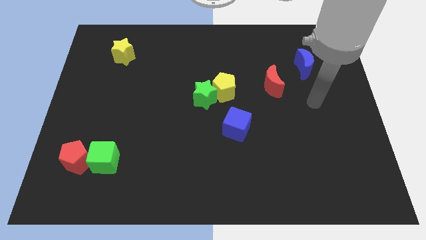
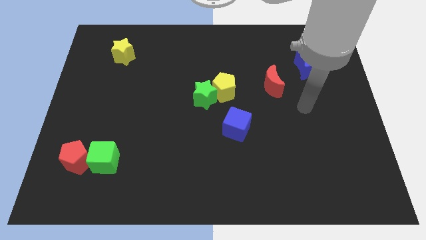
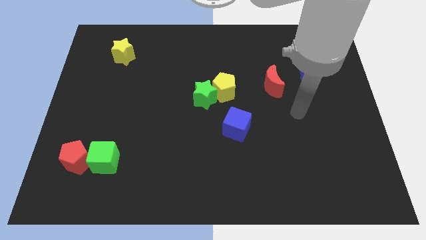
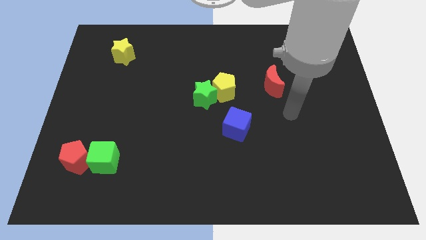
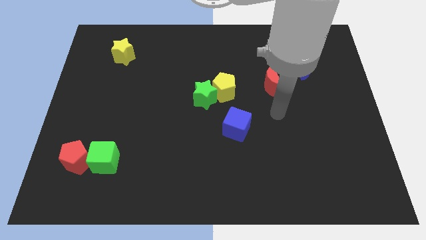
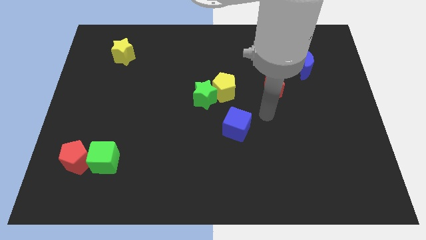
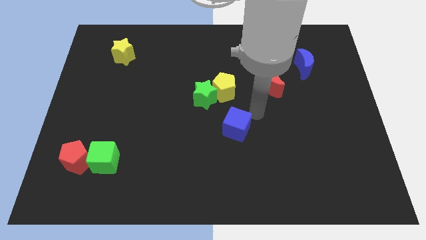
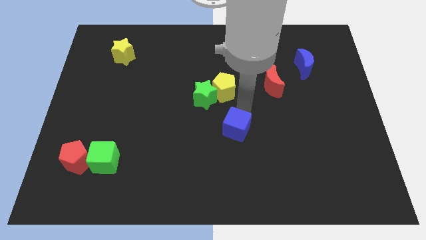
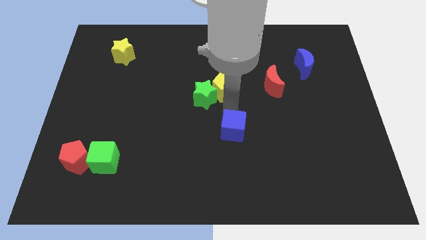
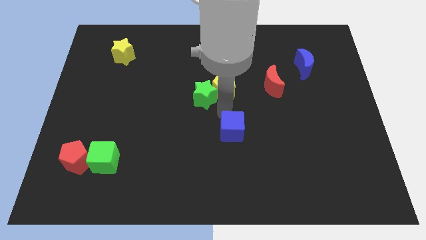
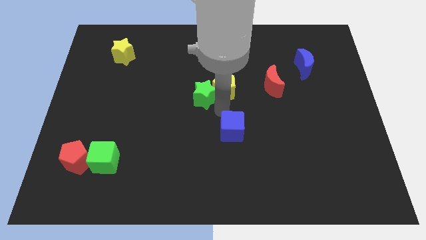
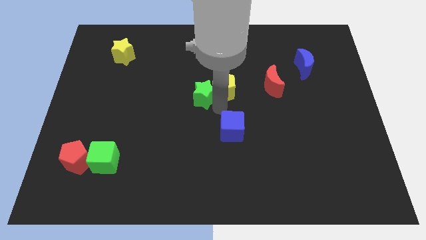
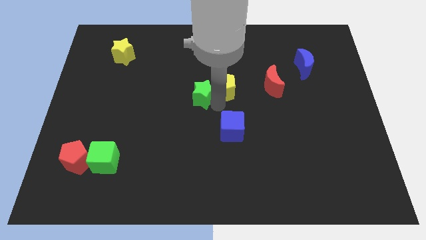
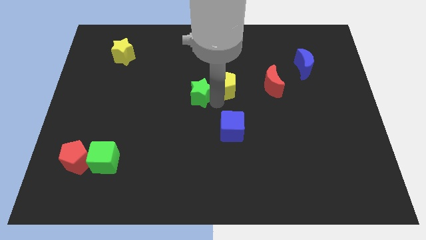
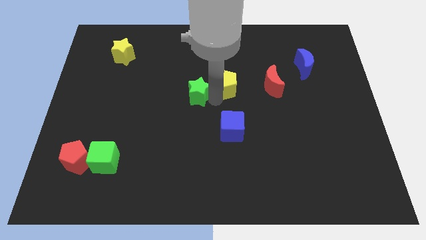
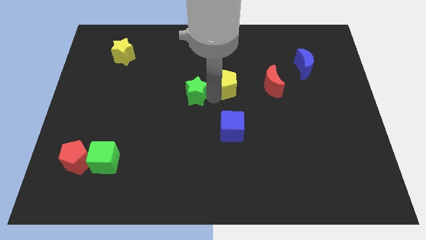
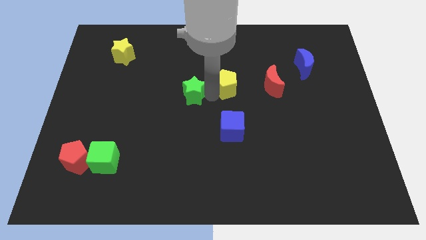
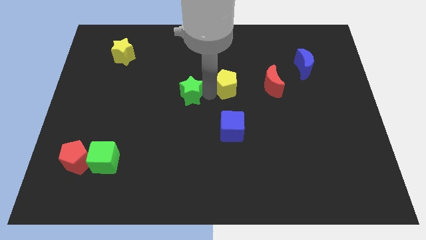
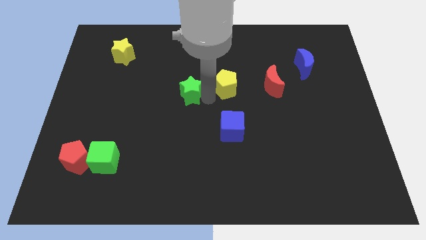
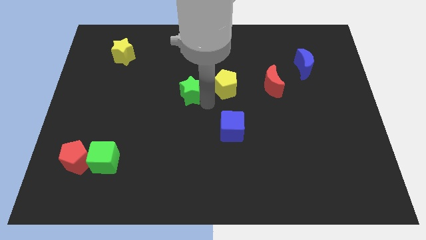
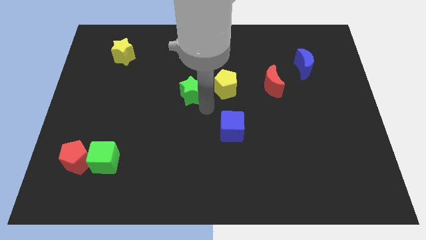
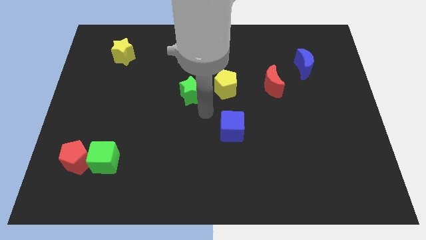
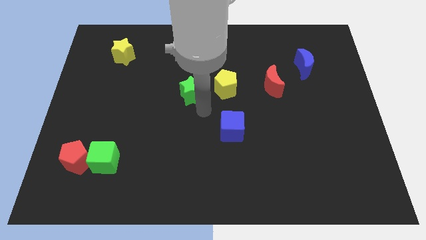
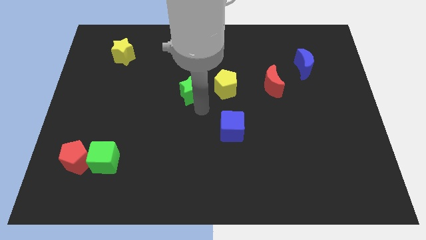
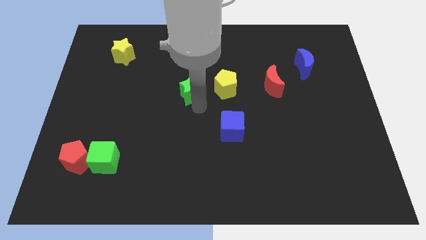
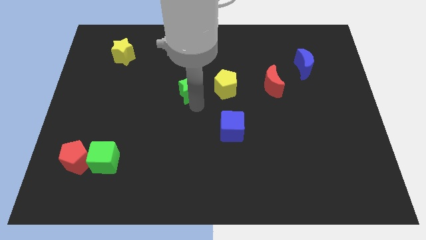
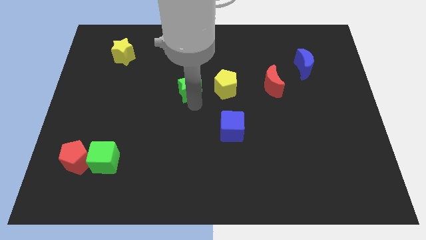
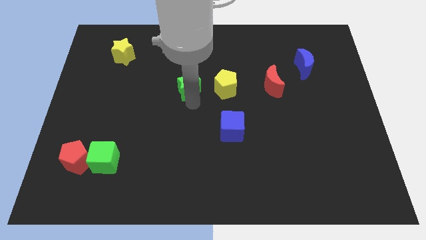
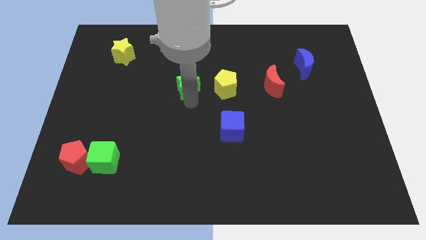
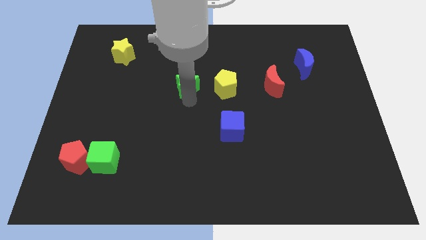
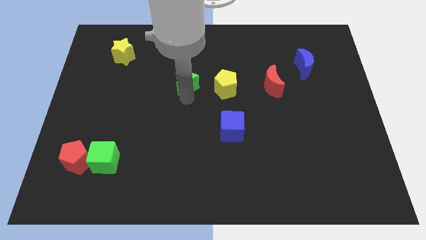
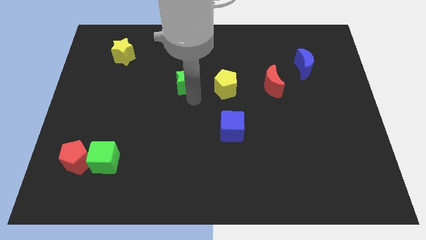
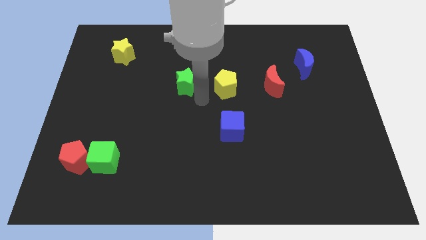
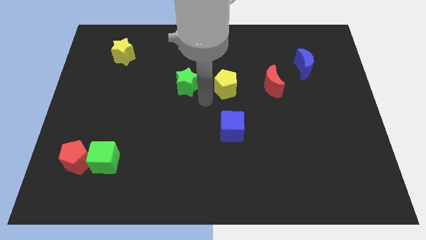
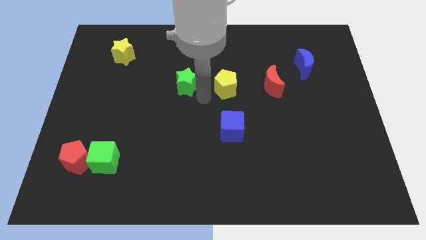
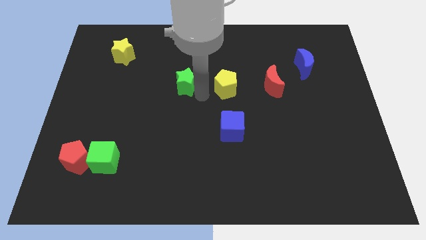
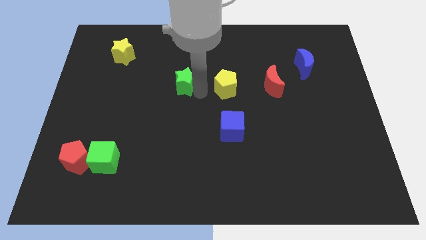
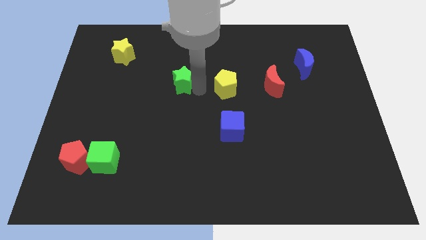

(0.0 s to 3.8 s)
move the green star a bit up and then to the left

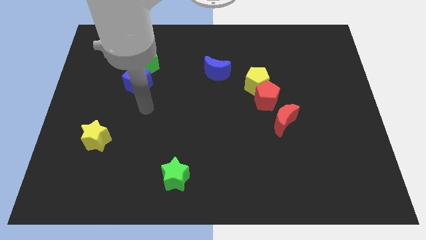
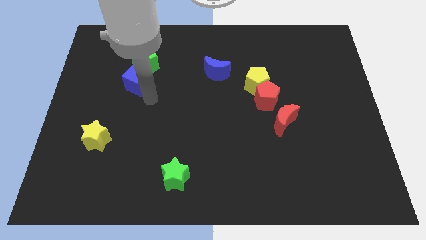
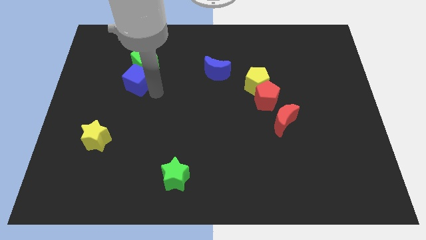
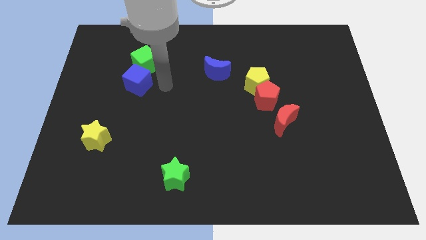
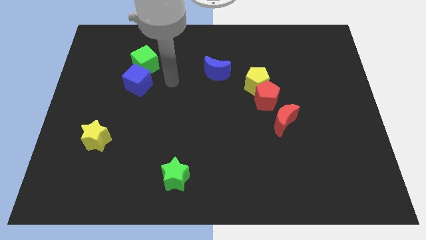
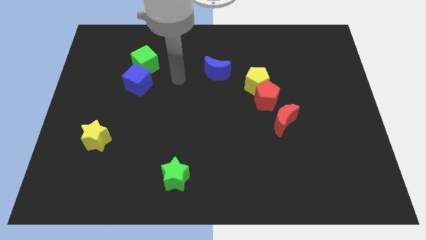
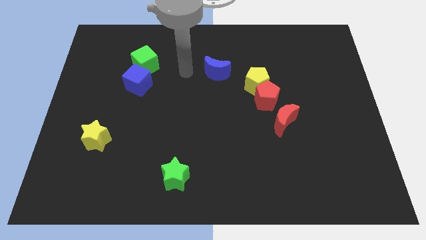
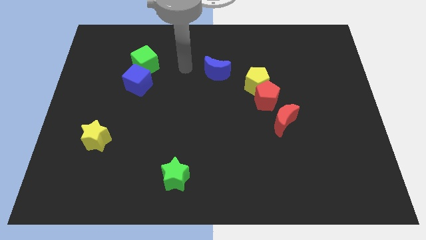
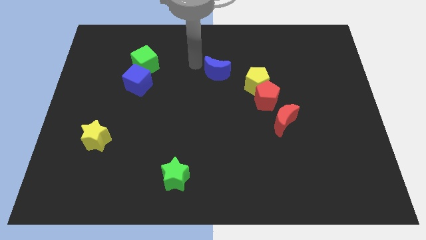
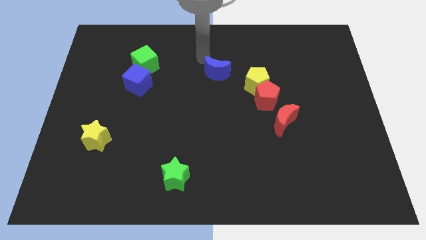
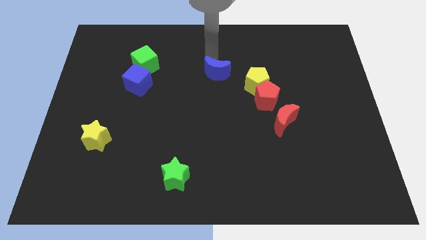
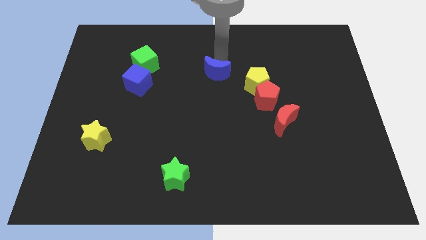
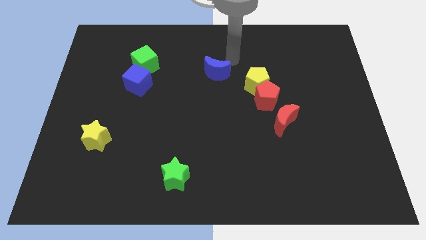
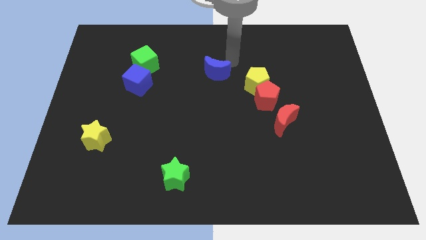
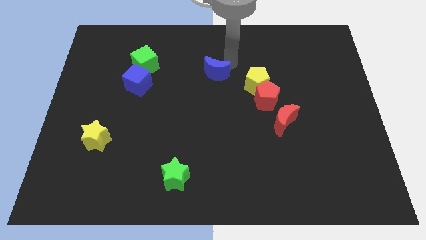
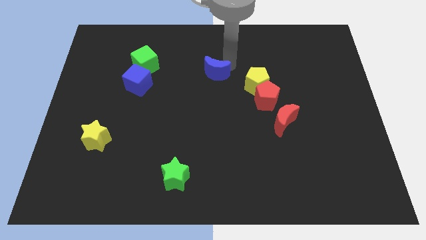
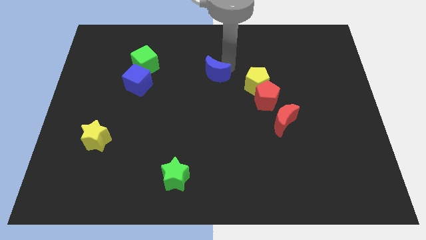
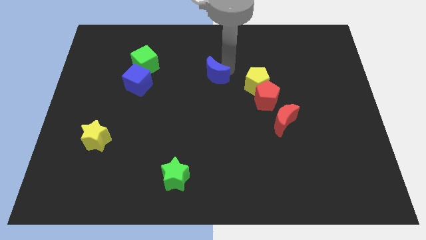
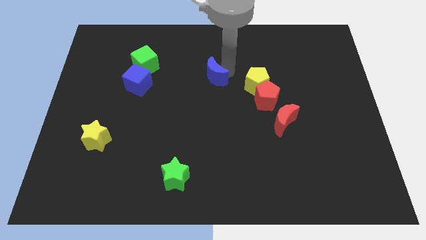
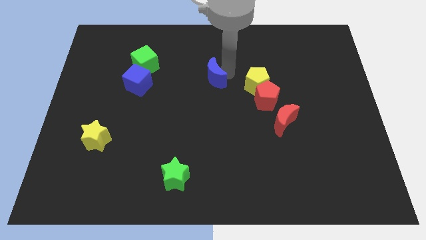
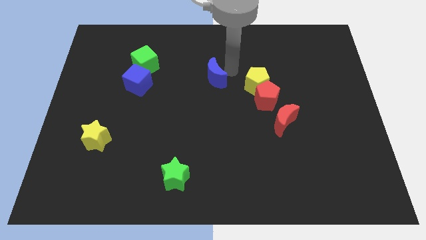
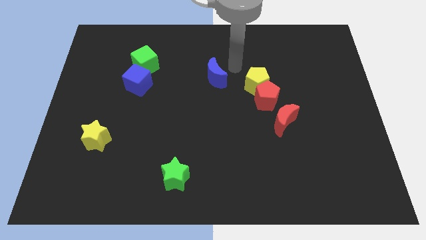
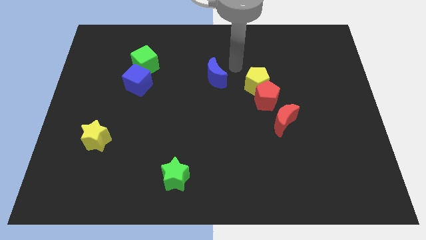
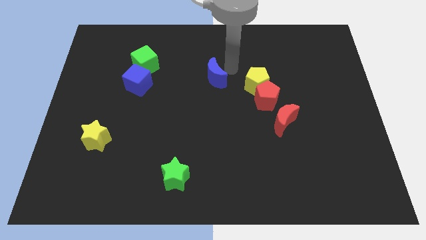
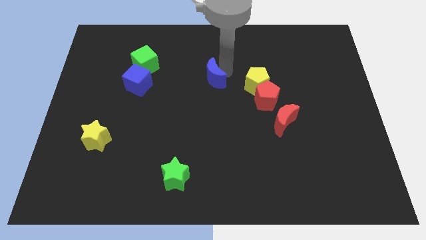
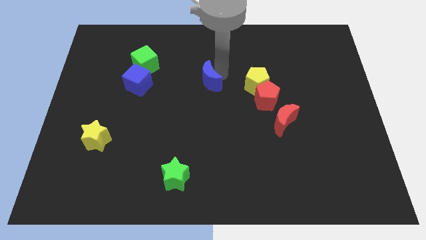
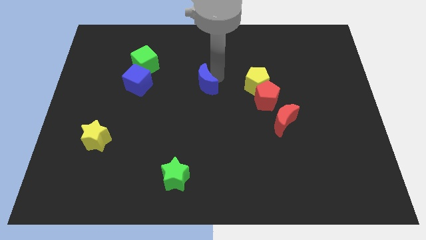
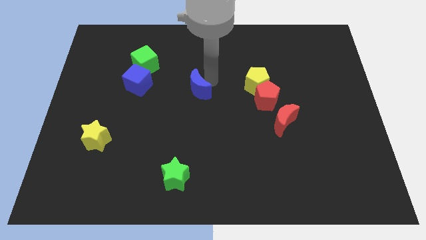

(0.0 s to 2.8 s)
slide the blue moon down and left diagonally a little bit

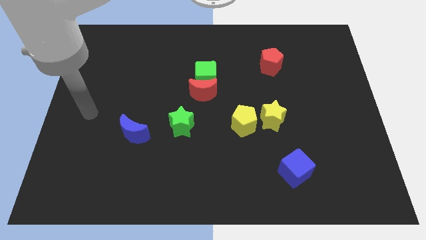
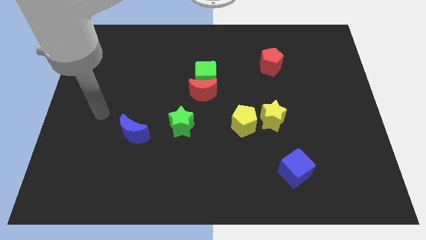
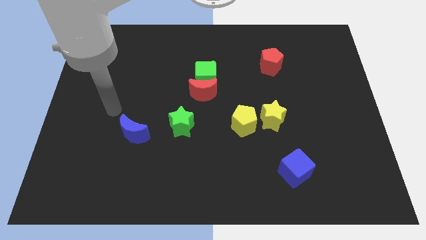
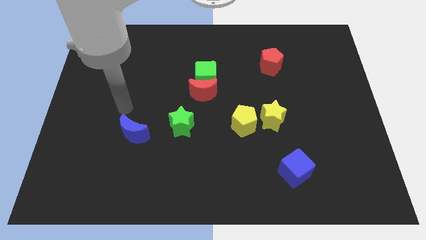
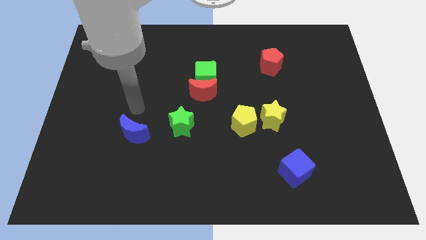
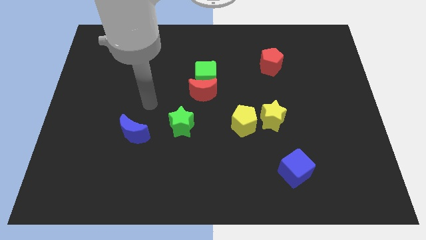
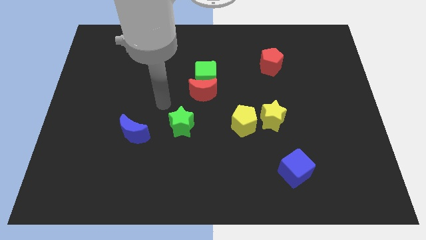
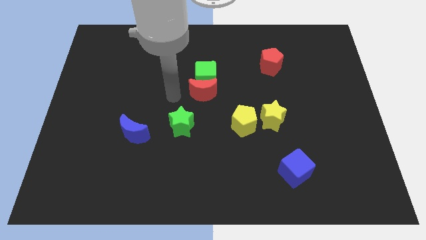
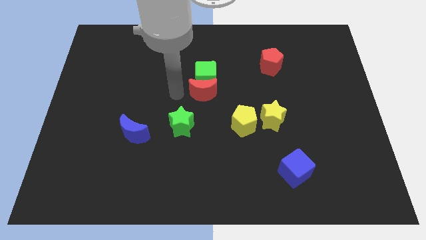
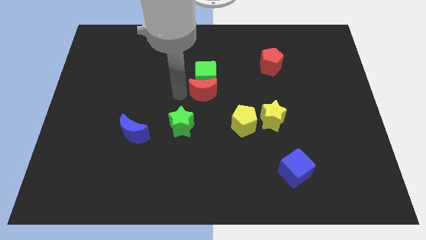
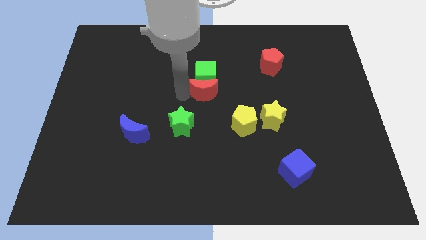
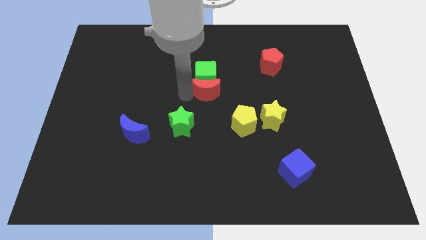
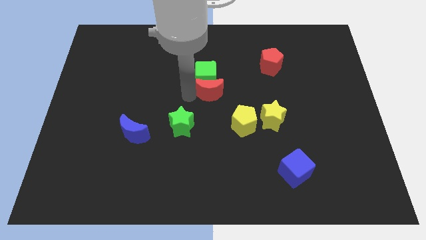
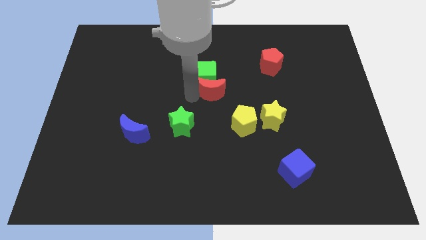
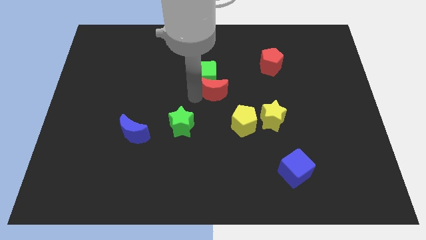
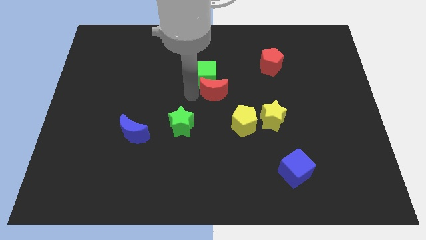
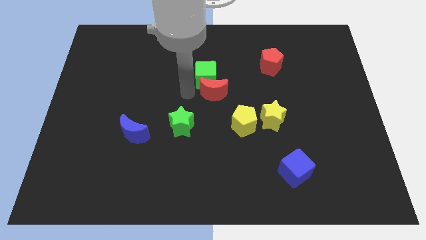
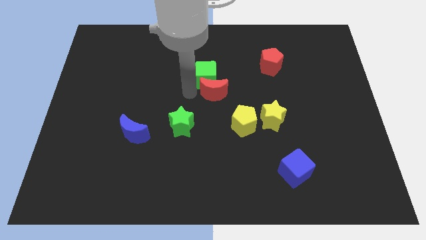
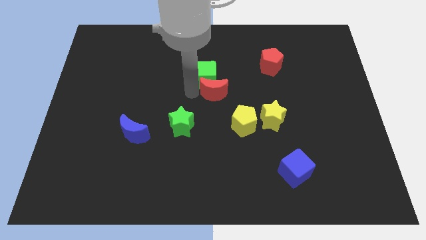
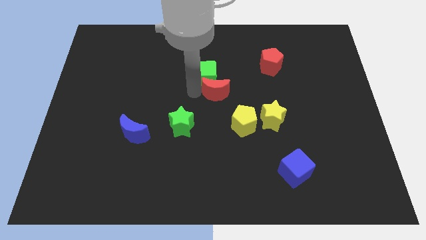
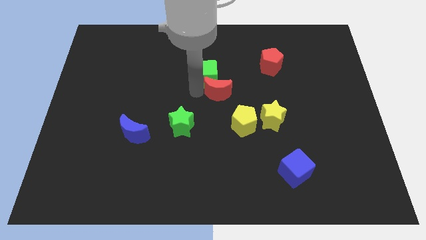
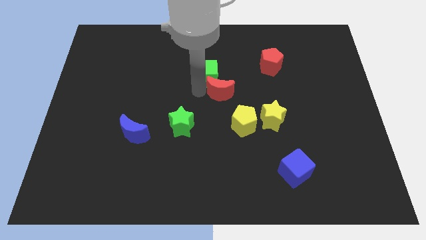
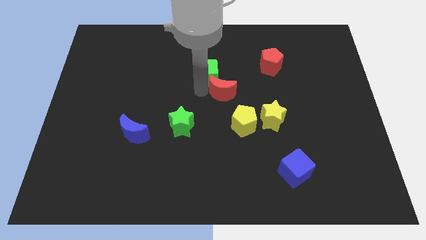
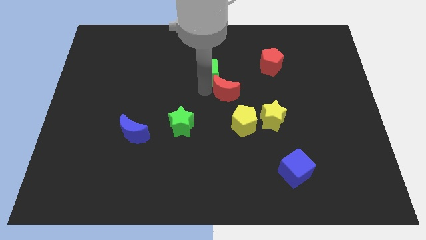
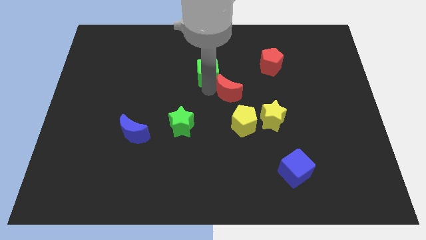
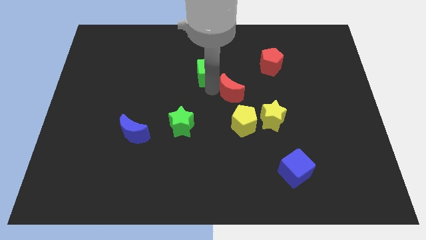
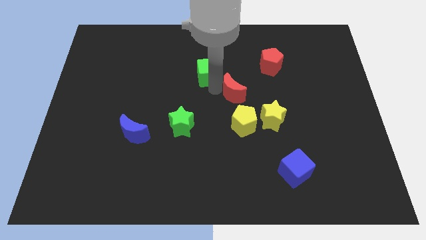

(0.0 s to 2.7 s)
move the red moon somewhat to the right
